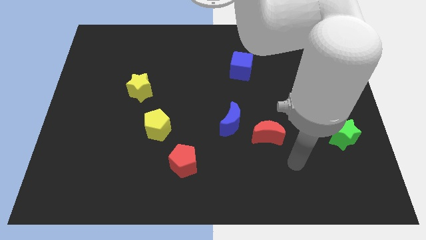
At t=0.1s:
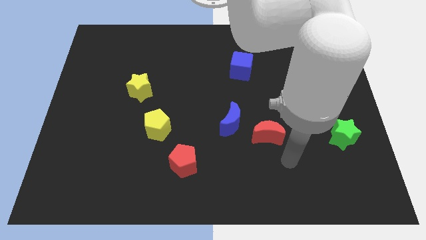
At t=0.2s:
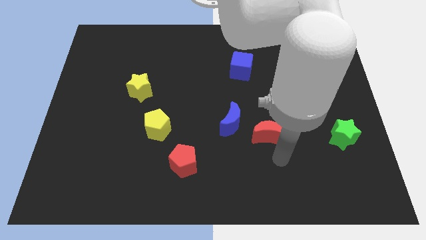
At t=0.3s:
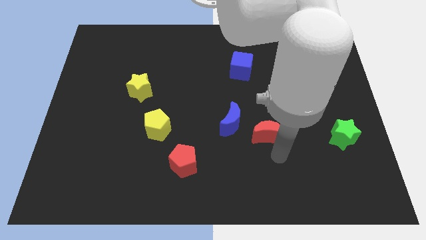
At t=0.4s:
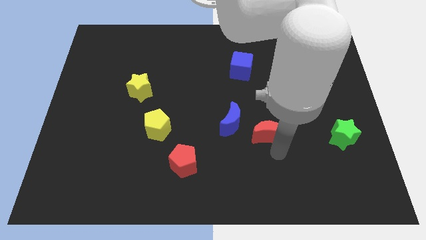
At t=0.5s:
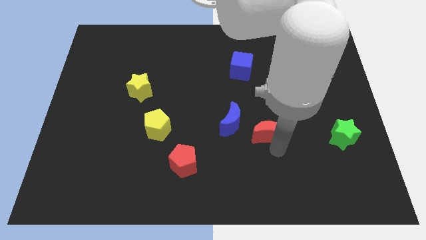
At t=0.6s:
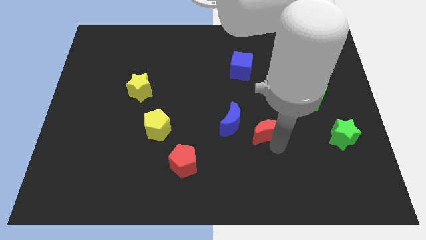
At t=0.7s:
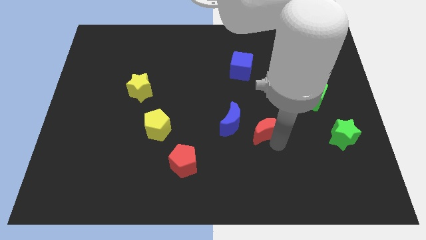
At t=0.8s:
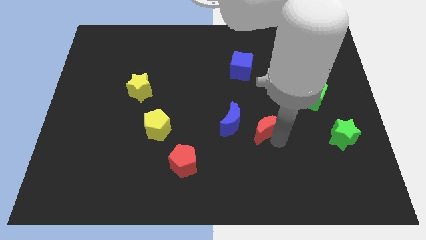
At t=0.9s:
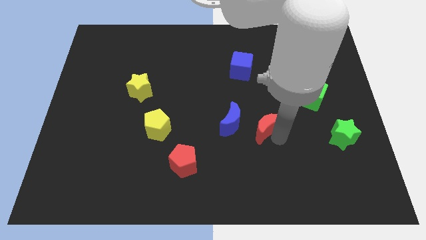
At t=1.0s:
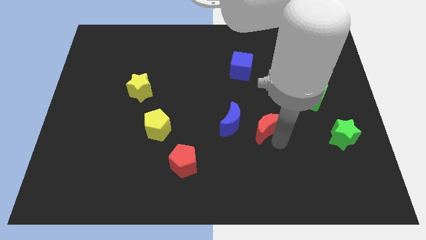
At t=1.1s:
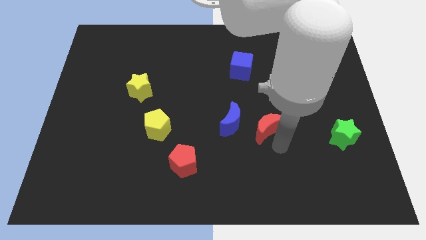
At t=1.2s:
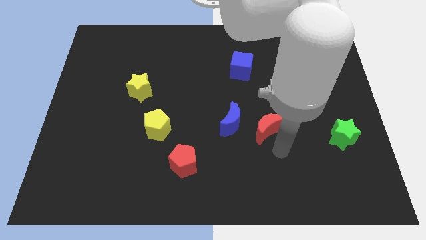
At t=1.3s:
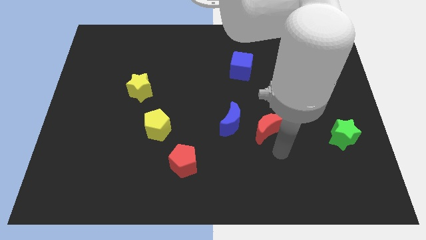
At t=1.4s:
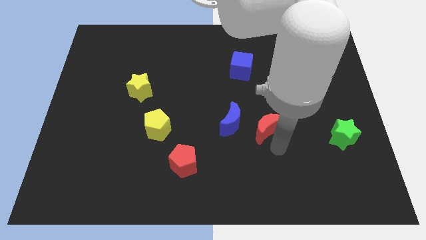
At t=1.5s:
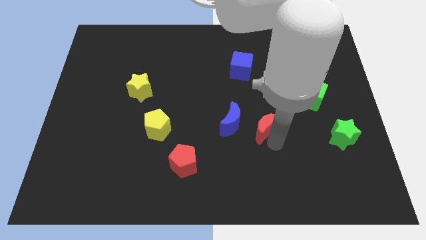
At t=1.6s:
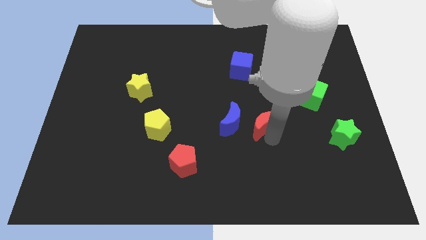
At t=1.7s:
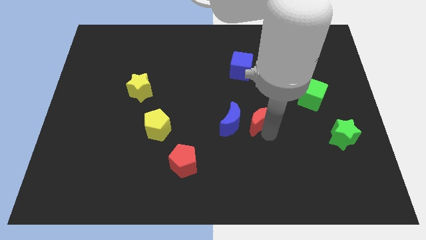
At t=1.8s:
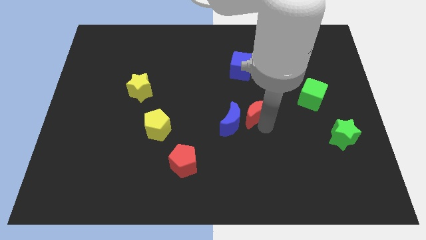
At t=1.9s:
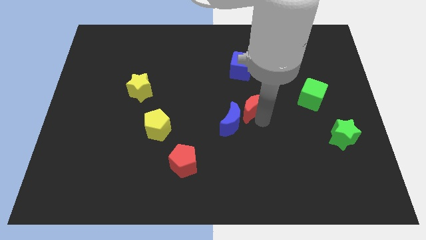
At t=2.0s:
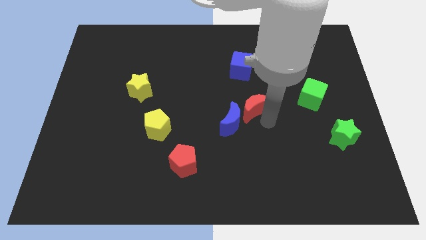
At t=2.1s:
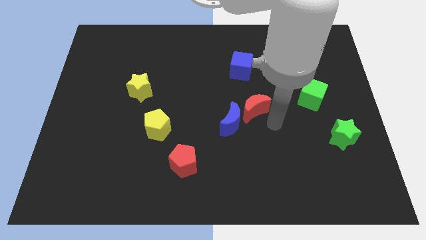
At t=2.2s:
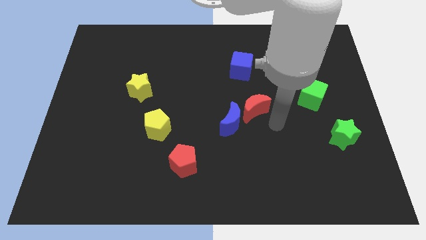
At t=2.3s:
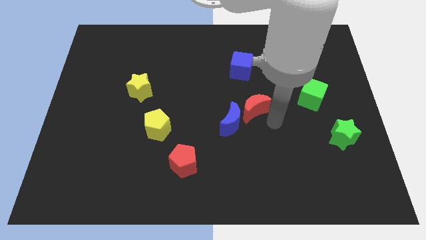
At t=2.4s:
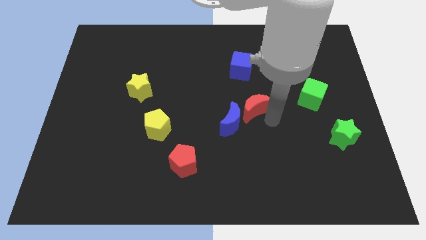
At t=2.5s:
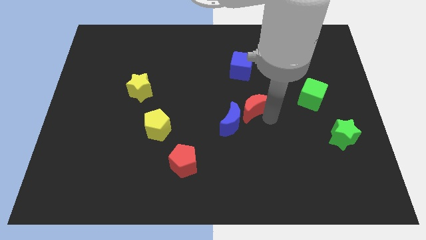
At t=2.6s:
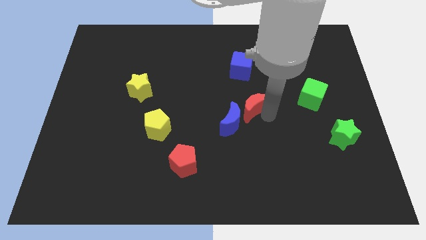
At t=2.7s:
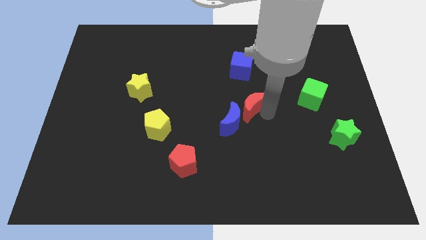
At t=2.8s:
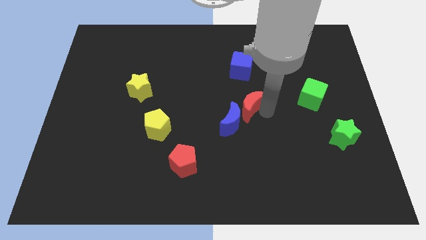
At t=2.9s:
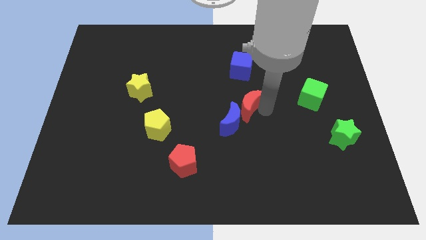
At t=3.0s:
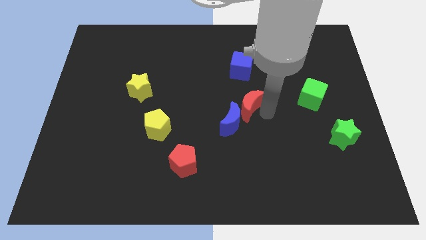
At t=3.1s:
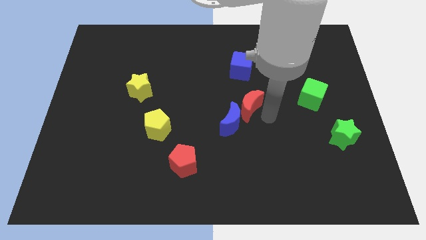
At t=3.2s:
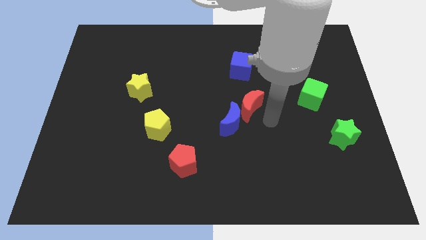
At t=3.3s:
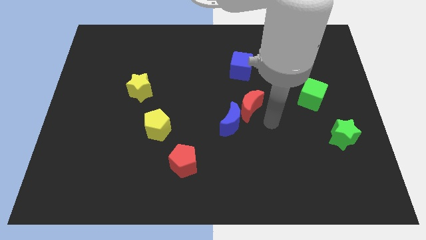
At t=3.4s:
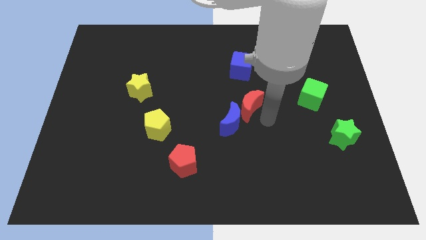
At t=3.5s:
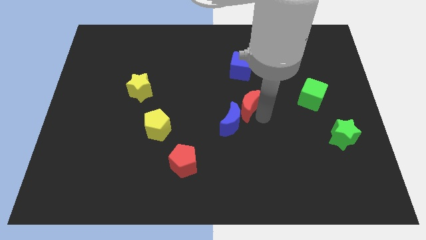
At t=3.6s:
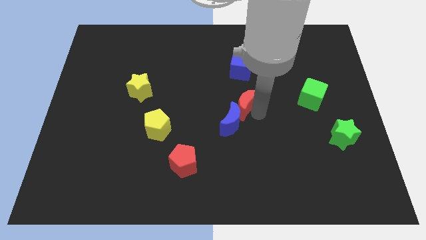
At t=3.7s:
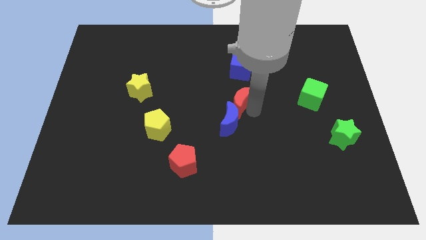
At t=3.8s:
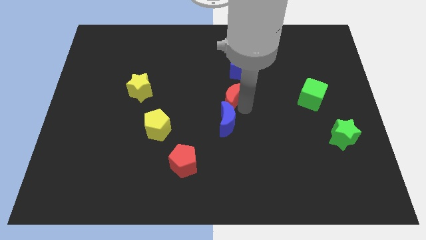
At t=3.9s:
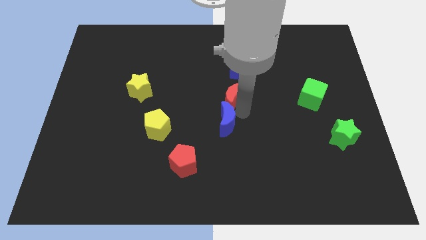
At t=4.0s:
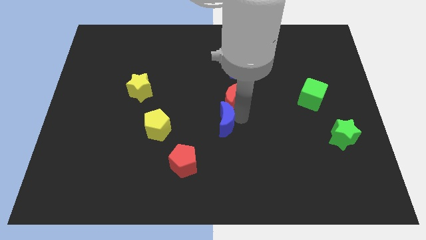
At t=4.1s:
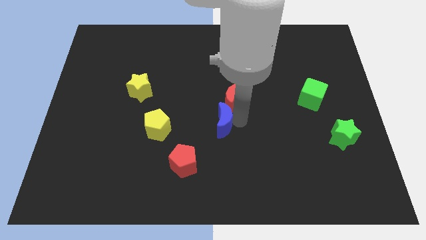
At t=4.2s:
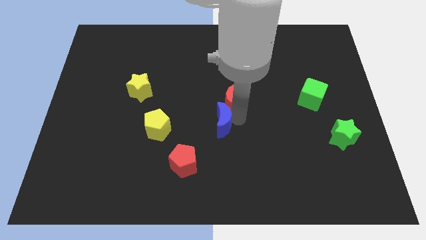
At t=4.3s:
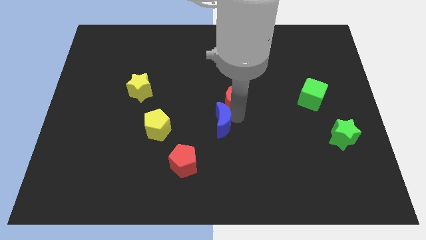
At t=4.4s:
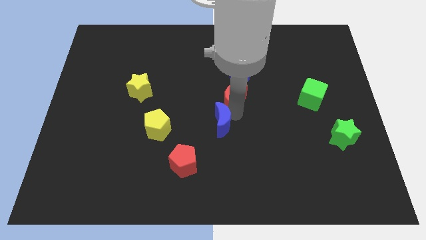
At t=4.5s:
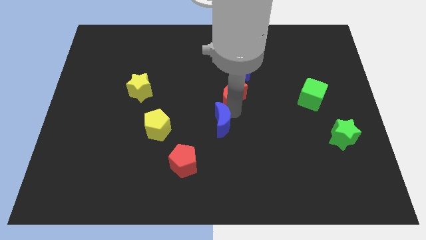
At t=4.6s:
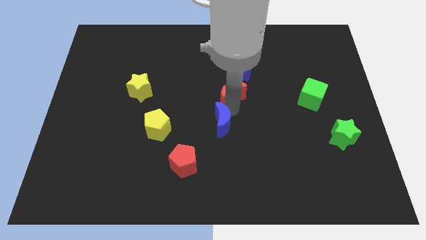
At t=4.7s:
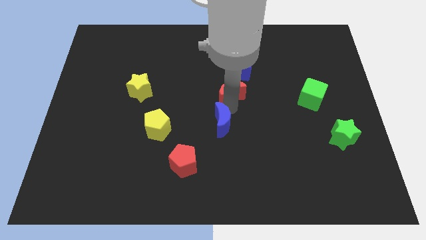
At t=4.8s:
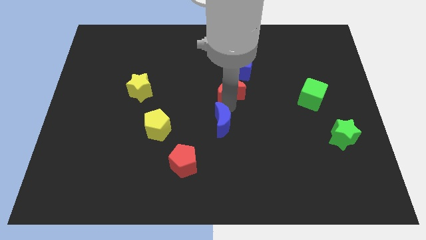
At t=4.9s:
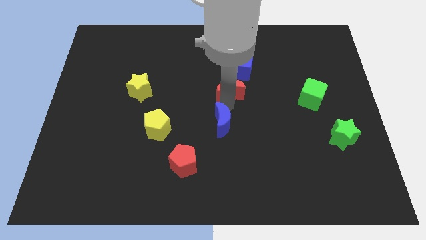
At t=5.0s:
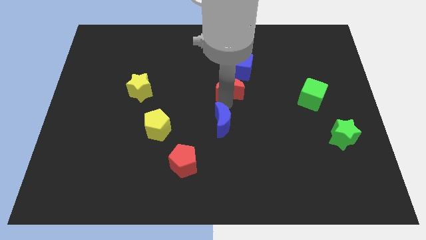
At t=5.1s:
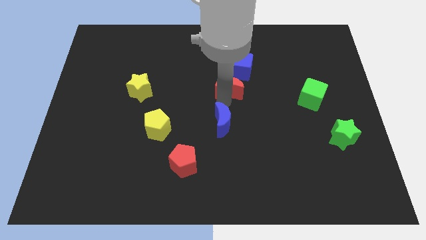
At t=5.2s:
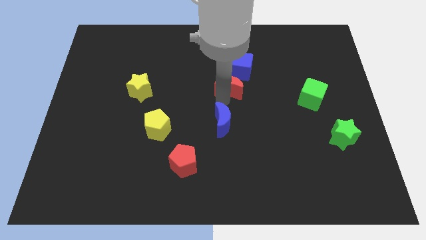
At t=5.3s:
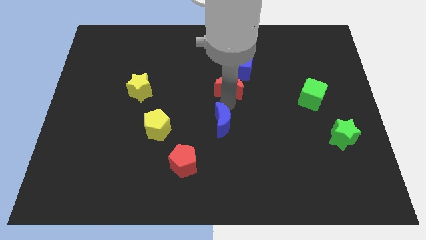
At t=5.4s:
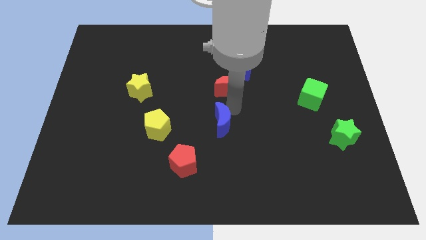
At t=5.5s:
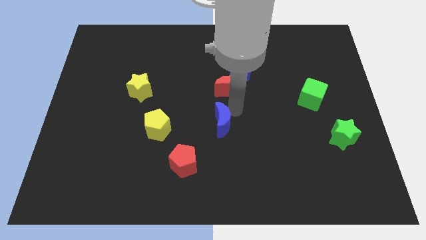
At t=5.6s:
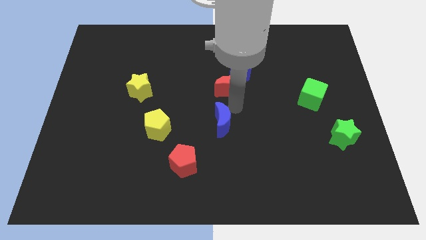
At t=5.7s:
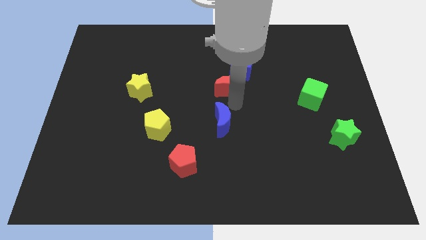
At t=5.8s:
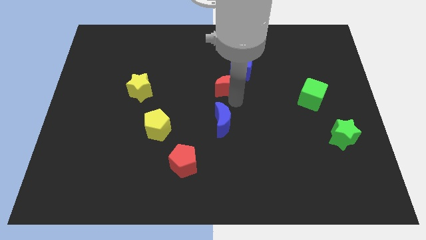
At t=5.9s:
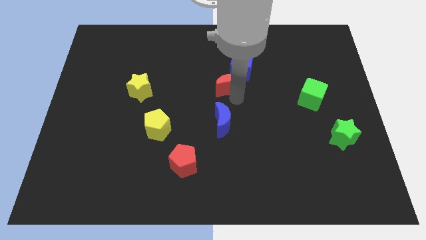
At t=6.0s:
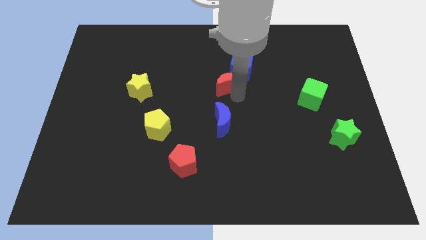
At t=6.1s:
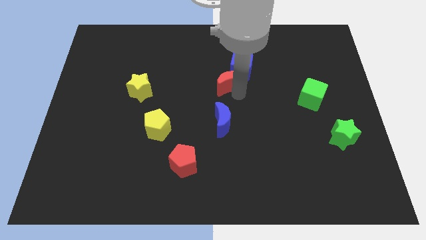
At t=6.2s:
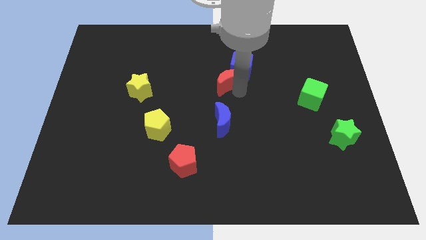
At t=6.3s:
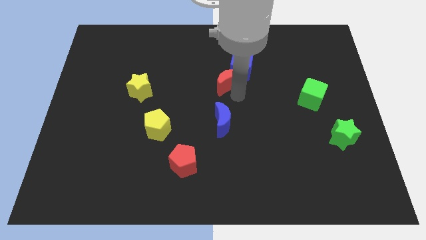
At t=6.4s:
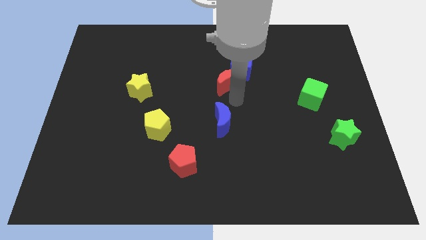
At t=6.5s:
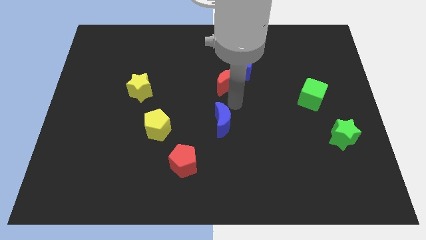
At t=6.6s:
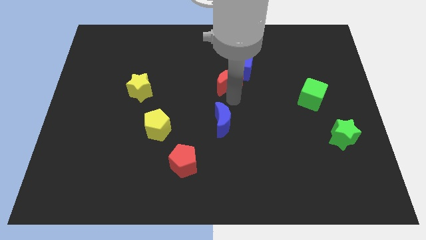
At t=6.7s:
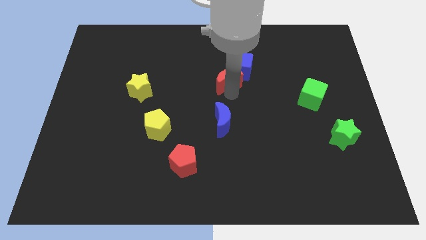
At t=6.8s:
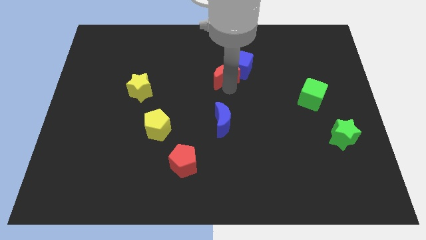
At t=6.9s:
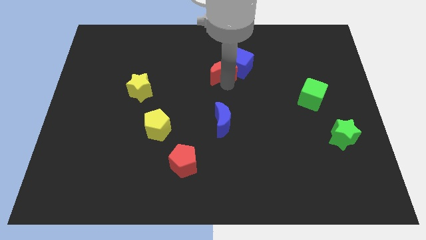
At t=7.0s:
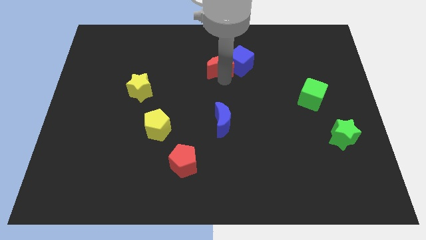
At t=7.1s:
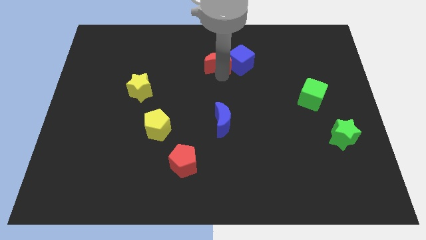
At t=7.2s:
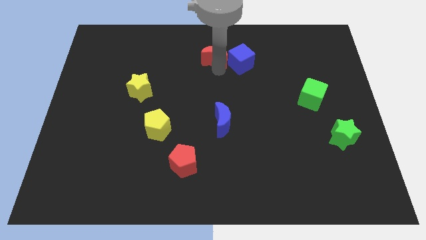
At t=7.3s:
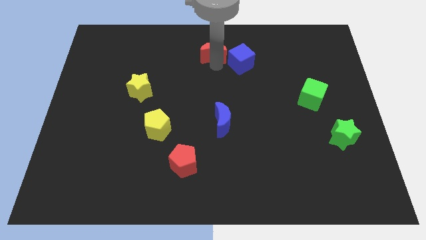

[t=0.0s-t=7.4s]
move the red moon to the top
